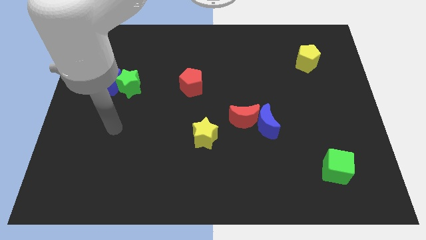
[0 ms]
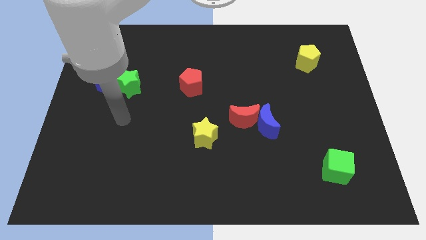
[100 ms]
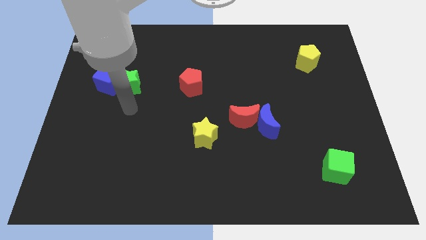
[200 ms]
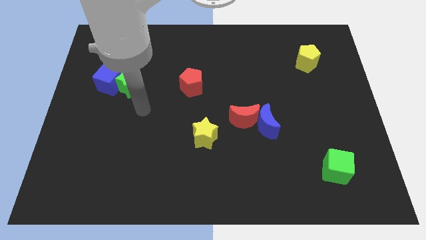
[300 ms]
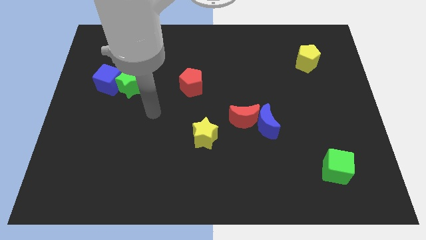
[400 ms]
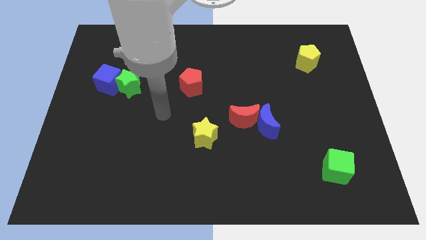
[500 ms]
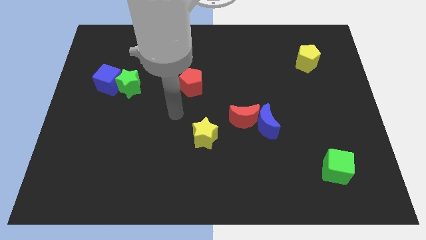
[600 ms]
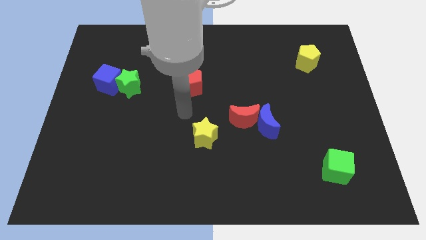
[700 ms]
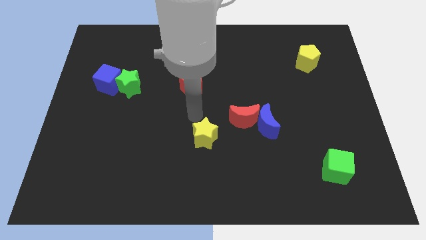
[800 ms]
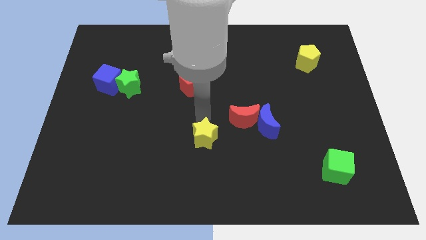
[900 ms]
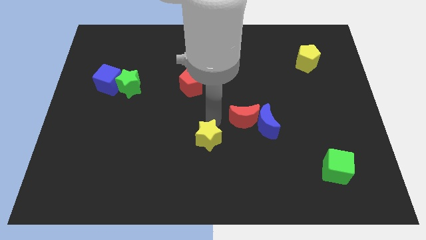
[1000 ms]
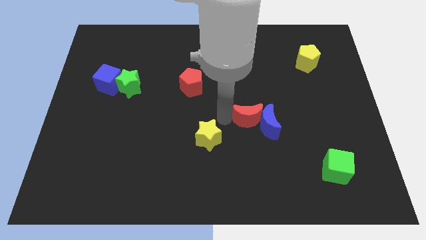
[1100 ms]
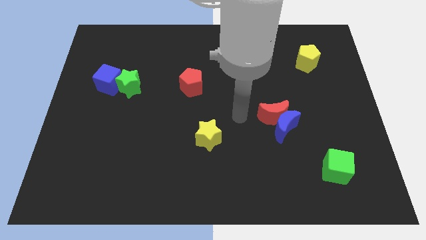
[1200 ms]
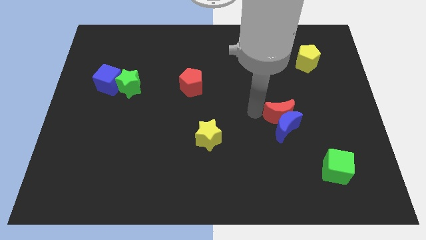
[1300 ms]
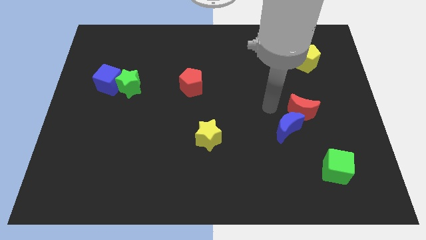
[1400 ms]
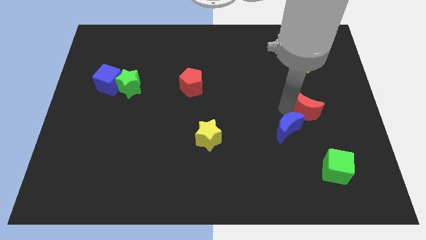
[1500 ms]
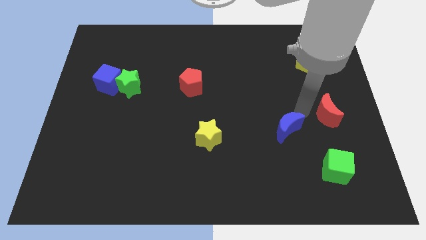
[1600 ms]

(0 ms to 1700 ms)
separate the blue moon from the red moon

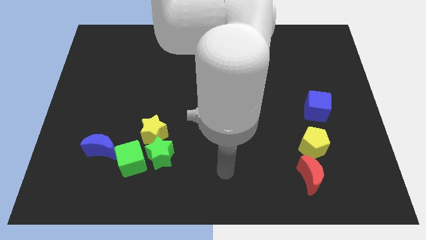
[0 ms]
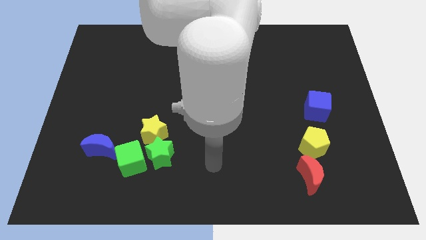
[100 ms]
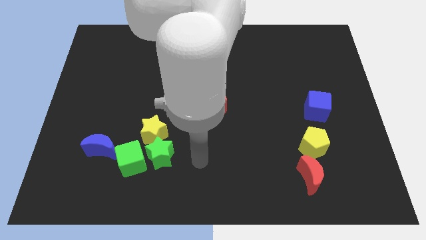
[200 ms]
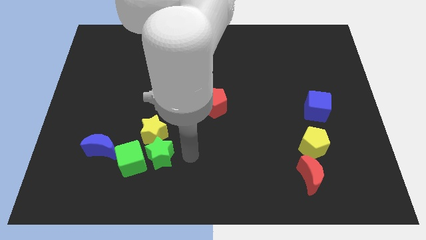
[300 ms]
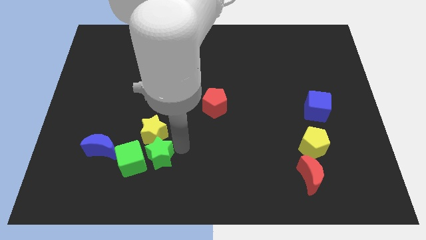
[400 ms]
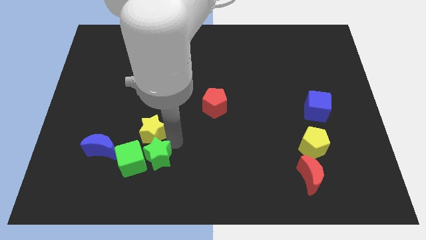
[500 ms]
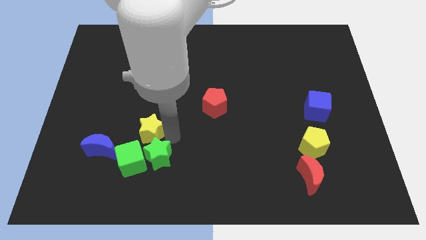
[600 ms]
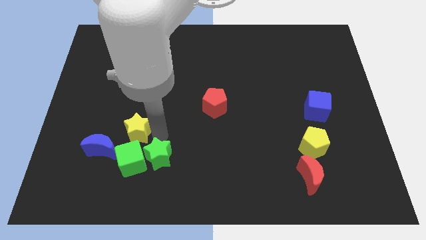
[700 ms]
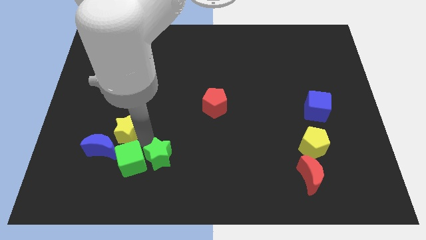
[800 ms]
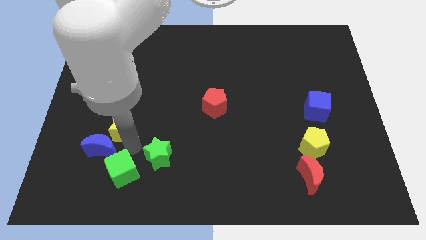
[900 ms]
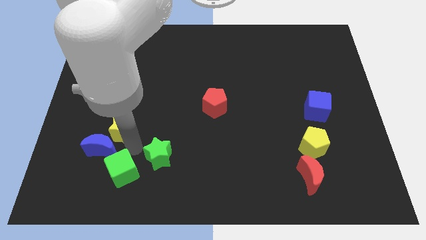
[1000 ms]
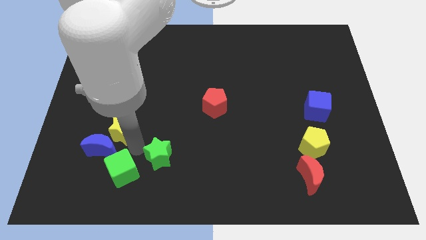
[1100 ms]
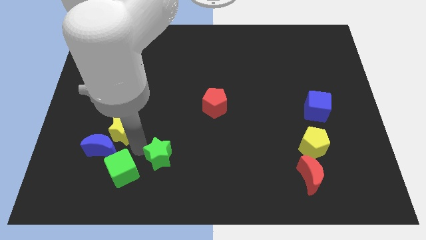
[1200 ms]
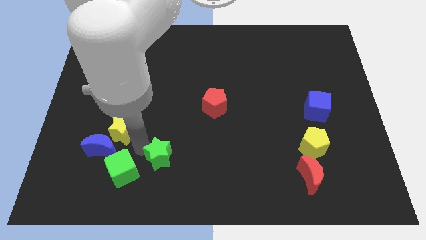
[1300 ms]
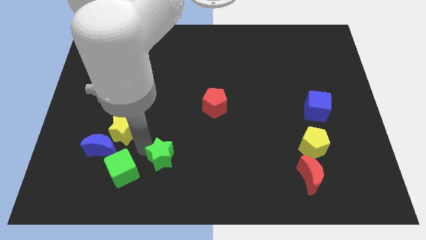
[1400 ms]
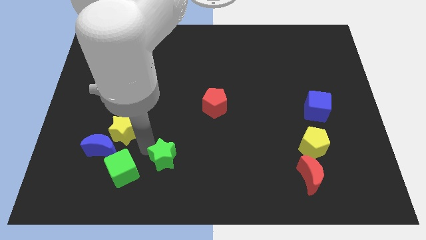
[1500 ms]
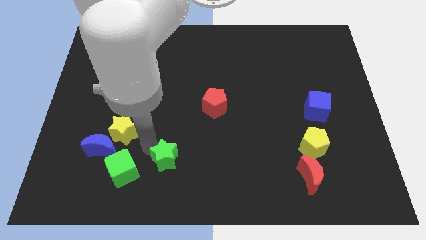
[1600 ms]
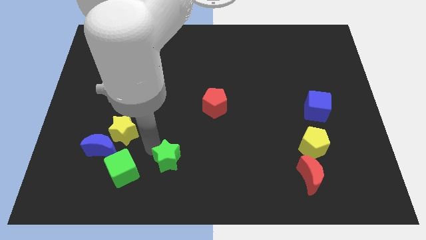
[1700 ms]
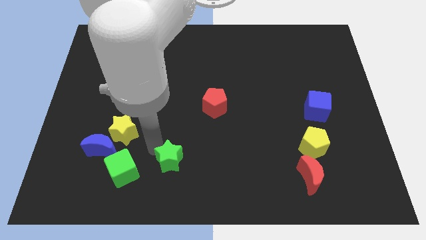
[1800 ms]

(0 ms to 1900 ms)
pull the green star apart from the yellow star and green cube

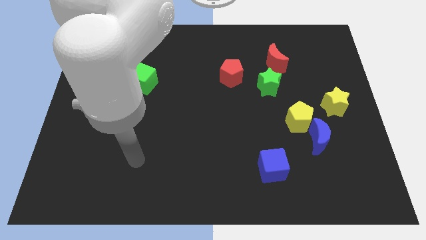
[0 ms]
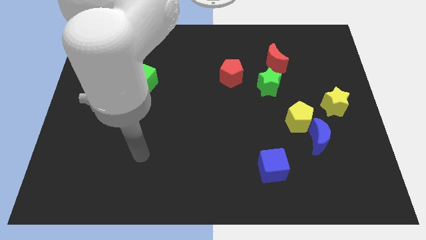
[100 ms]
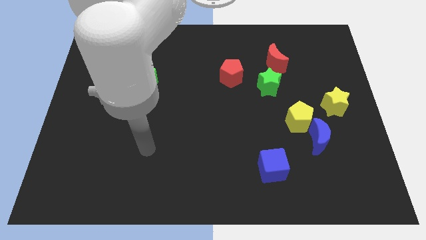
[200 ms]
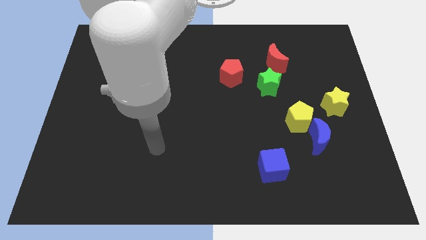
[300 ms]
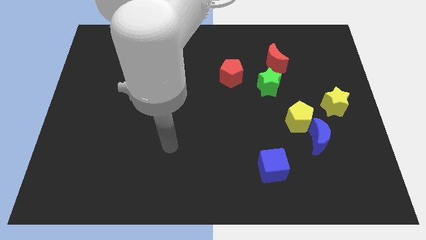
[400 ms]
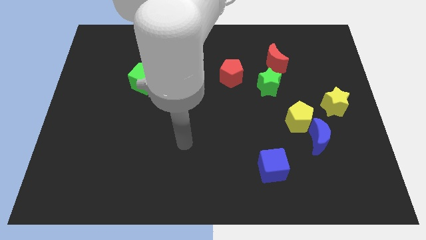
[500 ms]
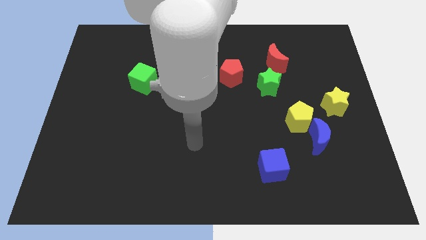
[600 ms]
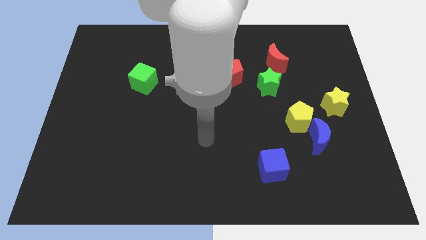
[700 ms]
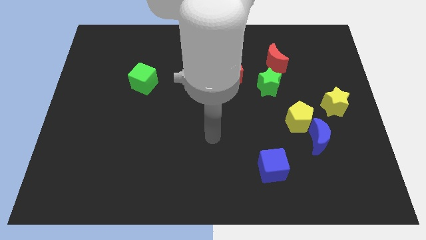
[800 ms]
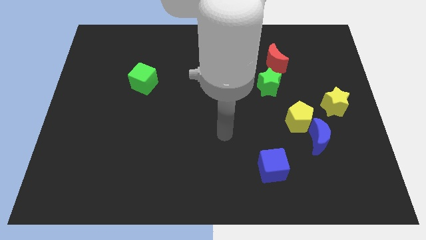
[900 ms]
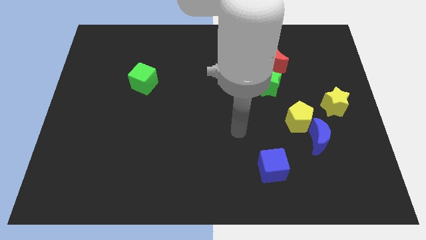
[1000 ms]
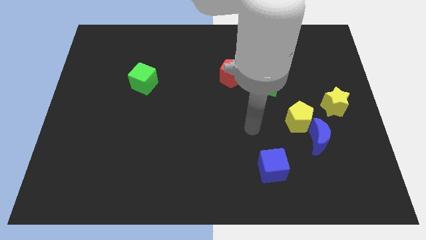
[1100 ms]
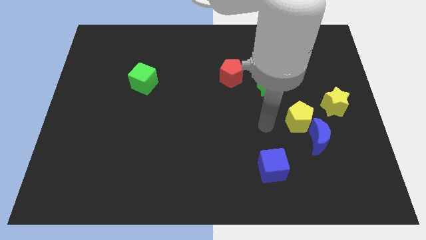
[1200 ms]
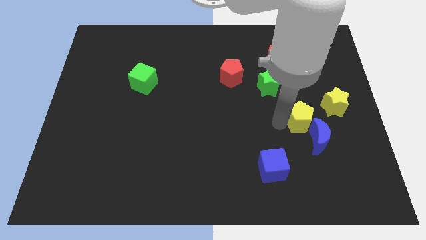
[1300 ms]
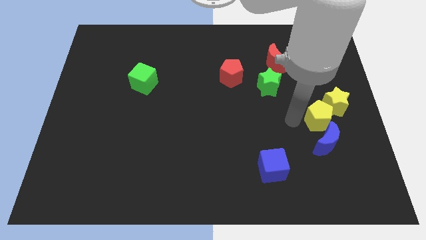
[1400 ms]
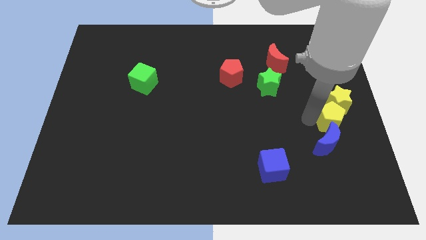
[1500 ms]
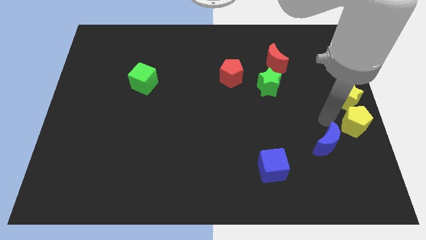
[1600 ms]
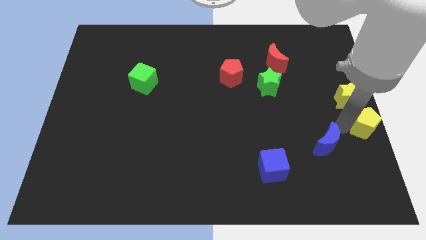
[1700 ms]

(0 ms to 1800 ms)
pull the blue moon apart from the yellow pentagon

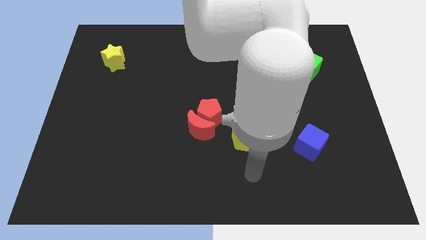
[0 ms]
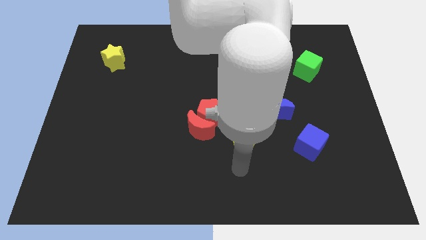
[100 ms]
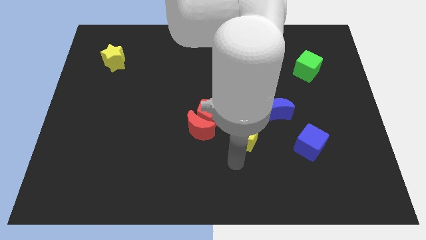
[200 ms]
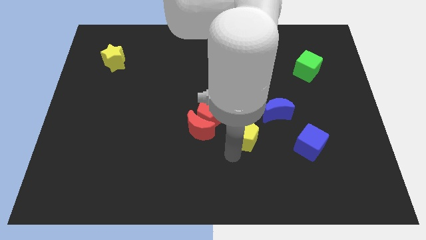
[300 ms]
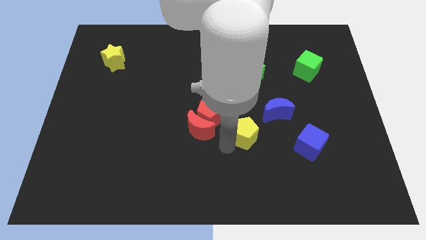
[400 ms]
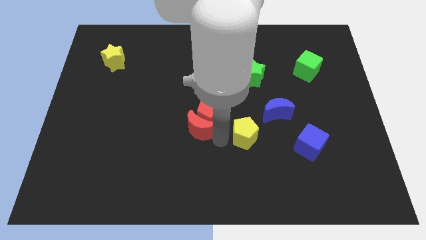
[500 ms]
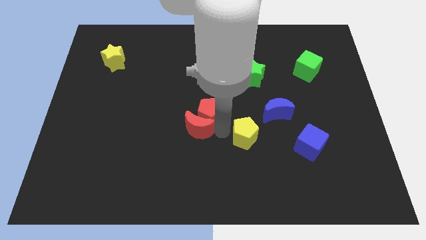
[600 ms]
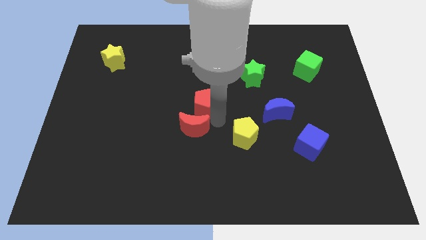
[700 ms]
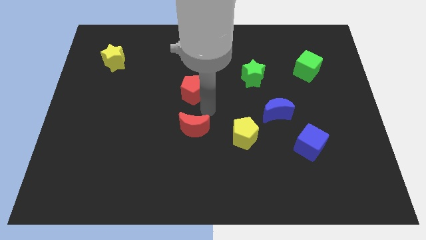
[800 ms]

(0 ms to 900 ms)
pull the red moon apart from the red pentagon

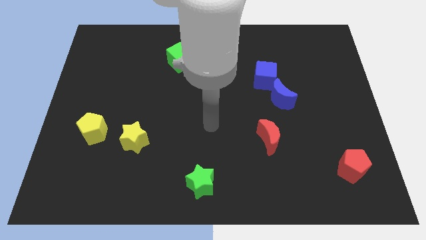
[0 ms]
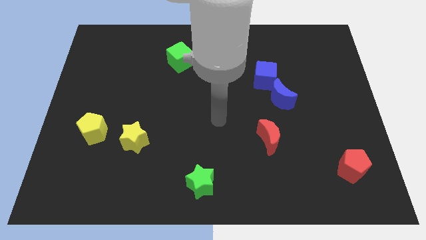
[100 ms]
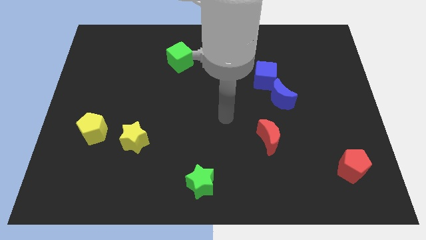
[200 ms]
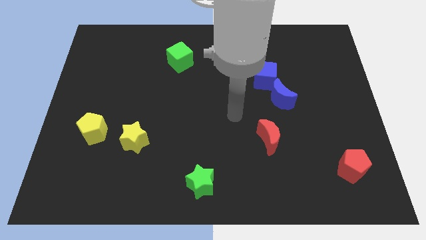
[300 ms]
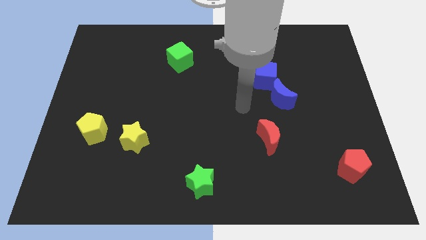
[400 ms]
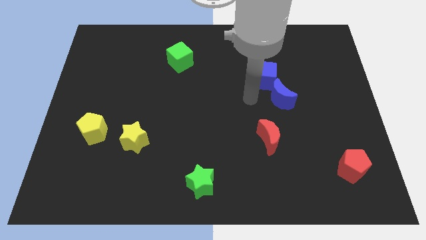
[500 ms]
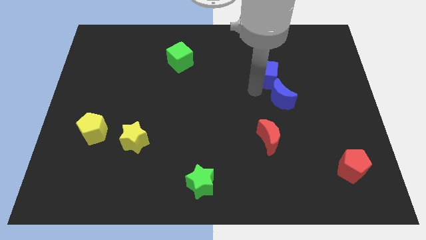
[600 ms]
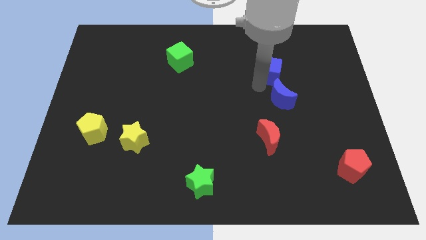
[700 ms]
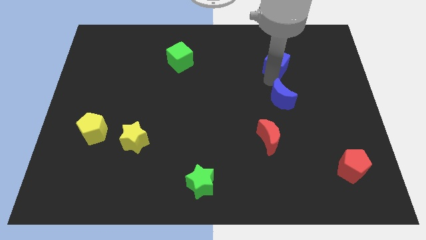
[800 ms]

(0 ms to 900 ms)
move the blue moon away from the blue cube

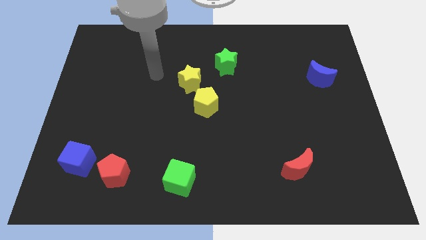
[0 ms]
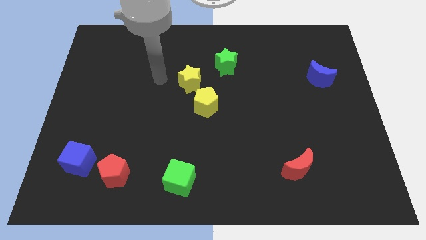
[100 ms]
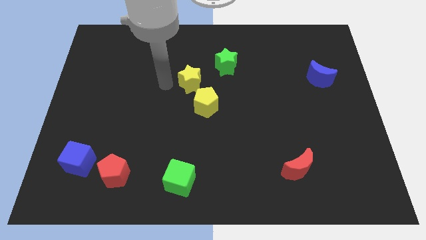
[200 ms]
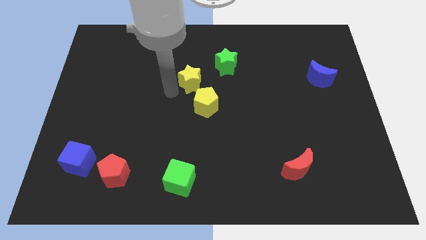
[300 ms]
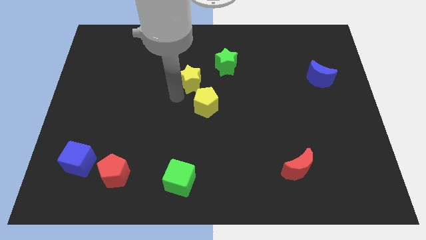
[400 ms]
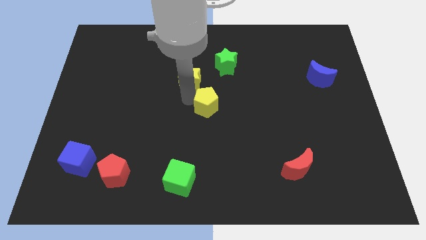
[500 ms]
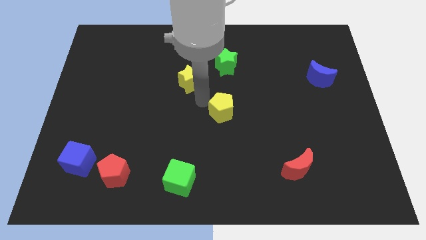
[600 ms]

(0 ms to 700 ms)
pull the yellow star apart from the yellow pentagon

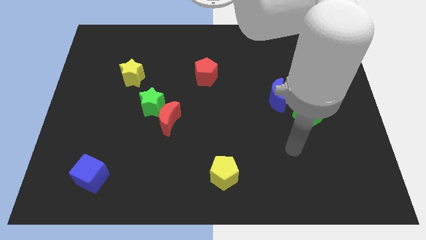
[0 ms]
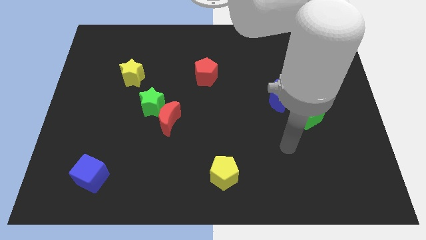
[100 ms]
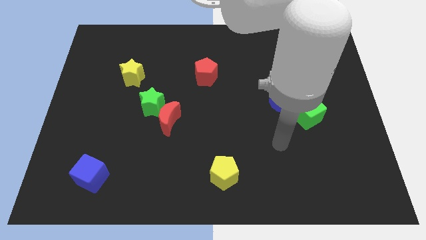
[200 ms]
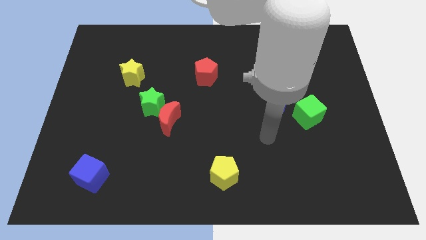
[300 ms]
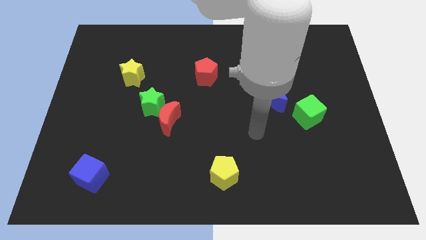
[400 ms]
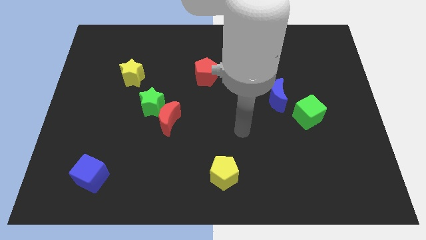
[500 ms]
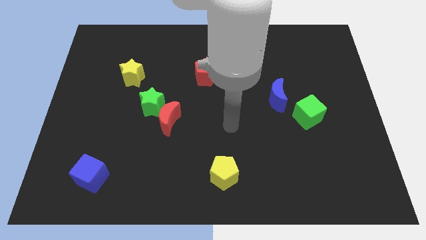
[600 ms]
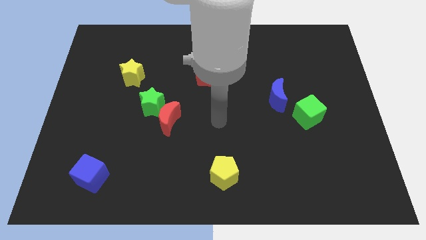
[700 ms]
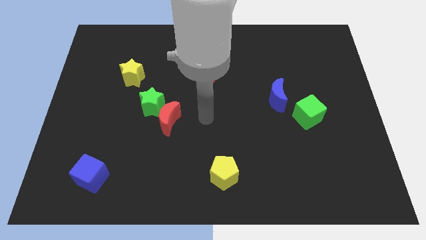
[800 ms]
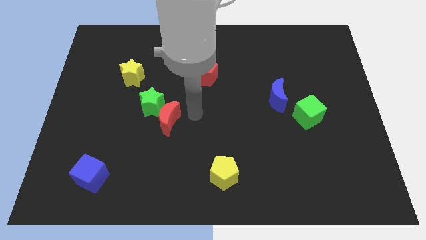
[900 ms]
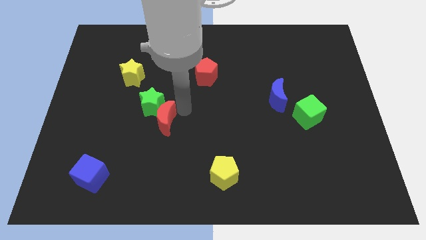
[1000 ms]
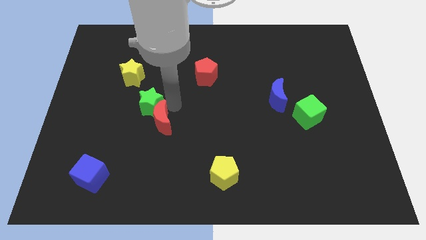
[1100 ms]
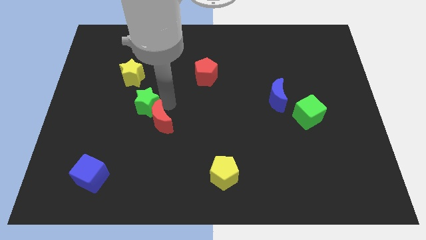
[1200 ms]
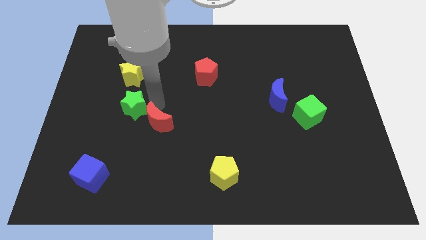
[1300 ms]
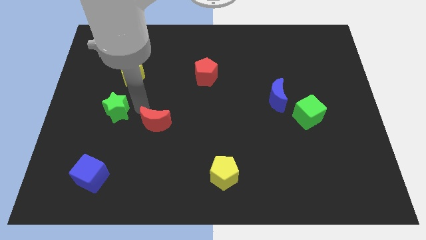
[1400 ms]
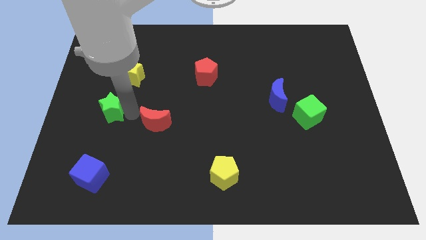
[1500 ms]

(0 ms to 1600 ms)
separate the red moon from the green star
